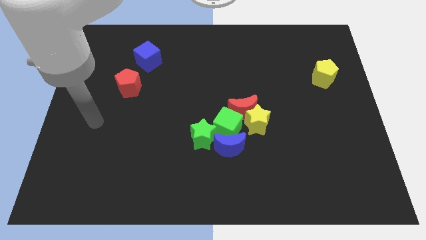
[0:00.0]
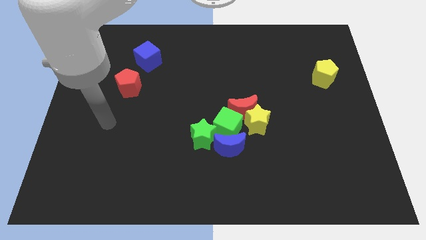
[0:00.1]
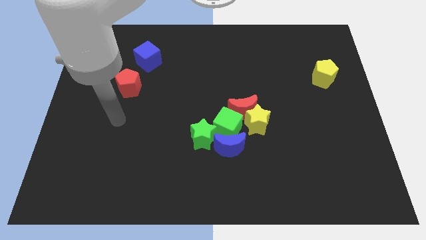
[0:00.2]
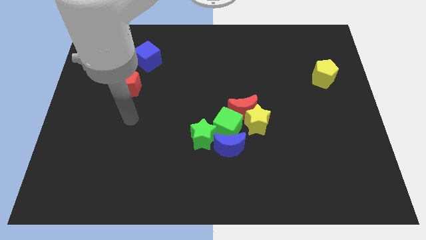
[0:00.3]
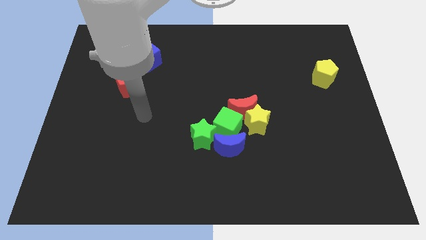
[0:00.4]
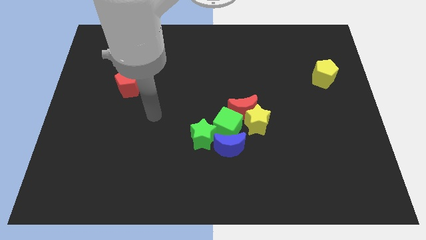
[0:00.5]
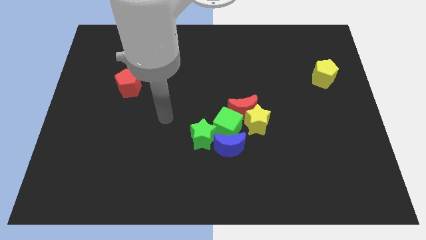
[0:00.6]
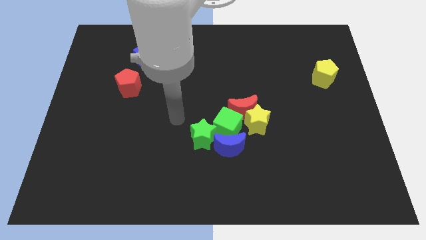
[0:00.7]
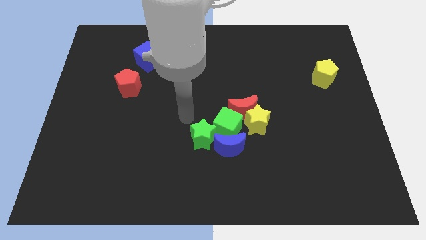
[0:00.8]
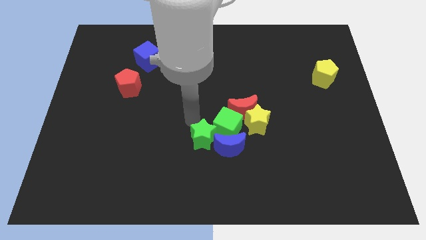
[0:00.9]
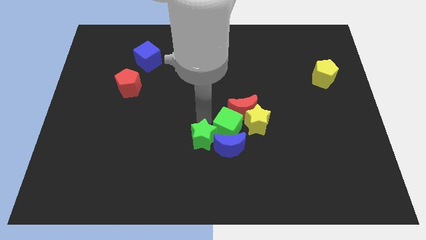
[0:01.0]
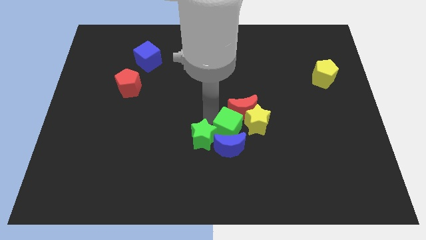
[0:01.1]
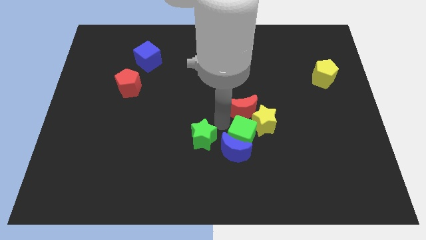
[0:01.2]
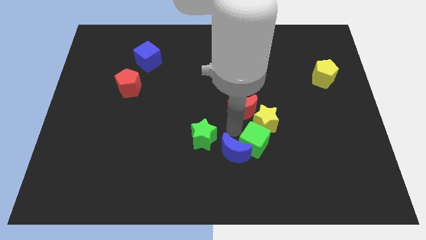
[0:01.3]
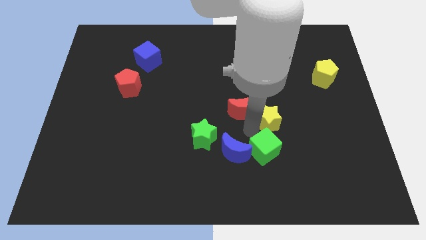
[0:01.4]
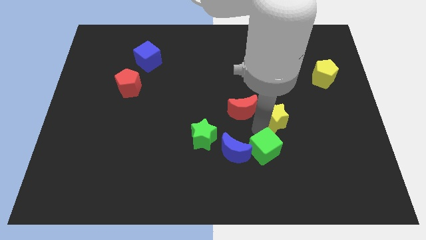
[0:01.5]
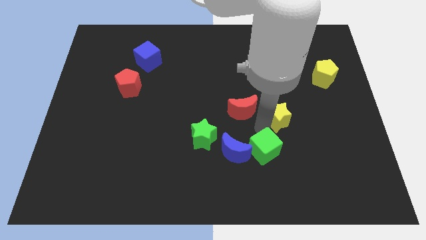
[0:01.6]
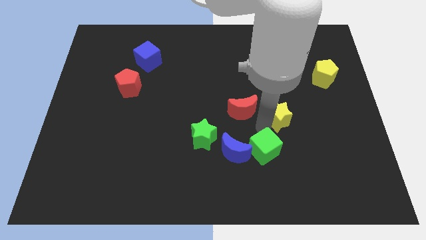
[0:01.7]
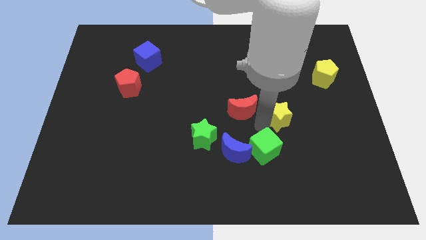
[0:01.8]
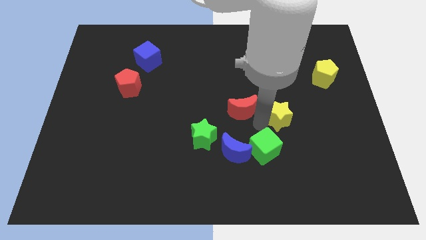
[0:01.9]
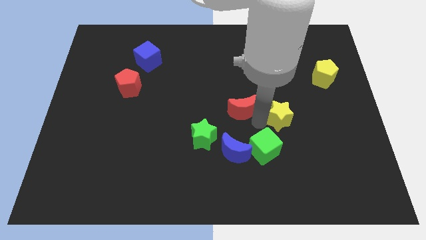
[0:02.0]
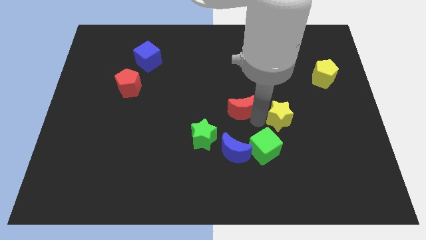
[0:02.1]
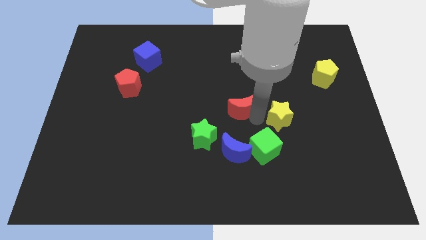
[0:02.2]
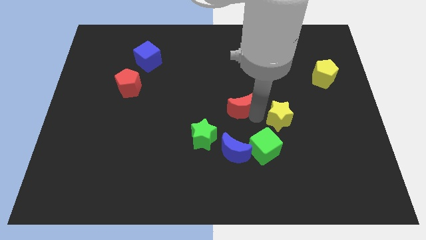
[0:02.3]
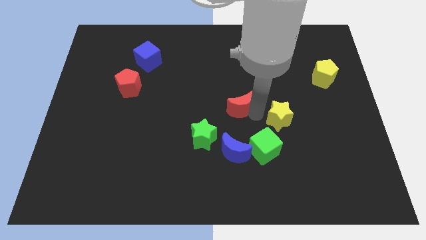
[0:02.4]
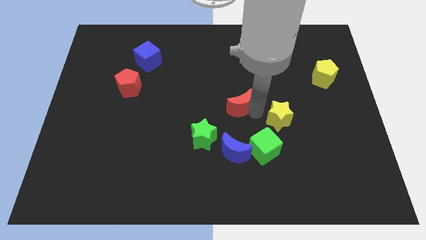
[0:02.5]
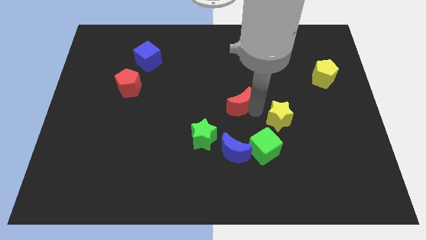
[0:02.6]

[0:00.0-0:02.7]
separate the red moon from the yellow star and green cube

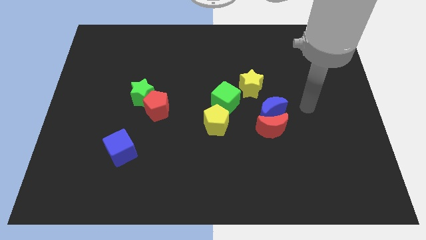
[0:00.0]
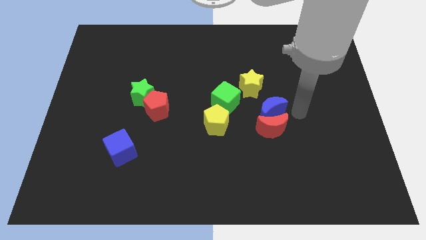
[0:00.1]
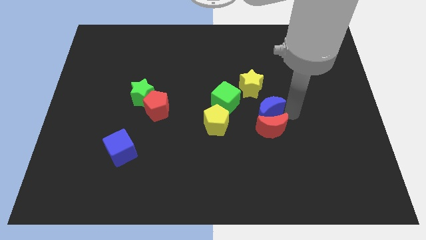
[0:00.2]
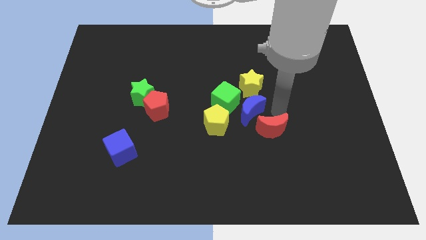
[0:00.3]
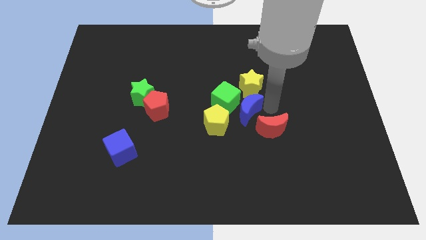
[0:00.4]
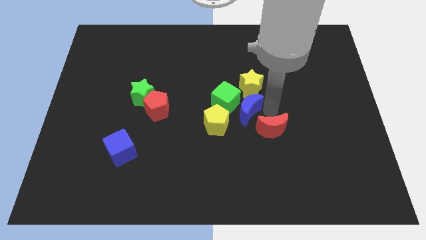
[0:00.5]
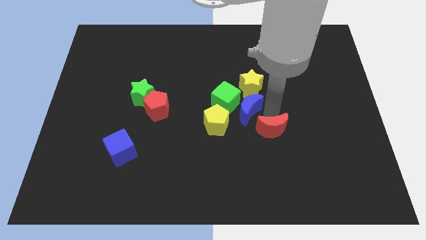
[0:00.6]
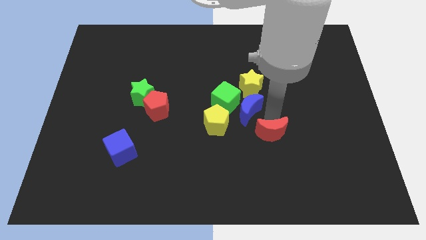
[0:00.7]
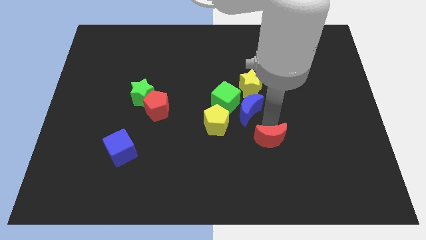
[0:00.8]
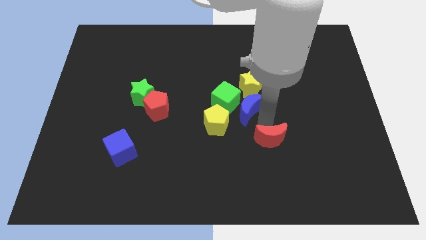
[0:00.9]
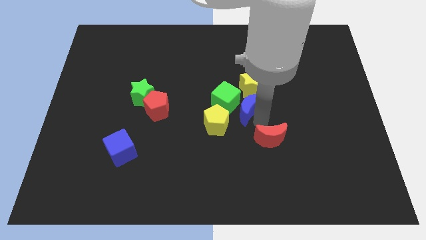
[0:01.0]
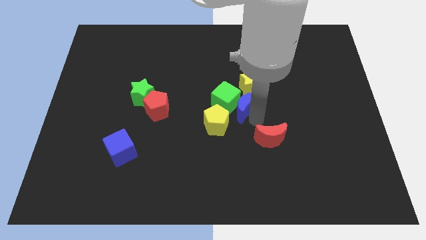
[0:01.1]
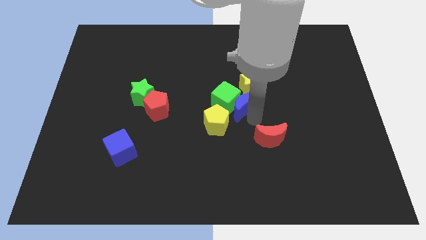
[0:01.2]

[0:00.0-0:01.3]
pull the red moon apart from the blue moon

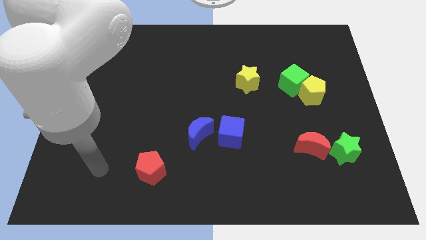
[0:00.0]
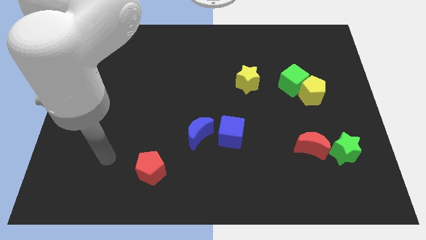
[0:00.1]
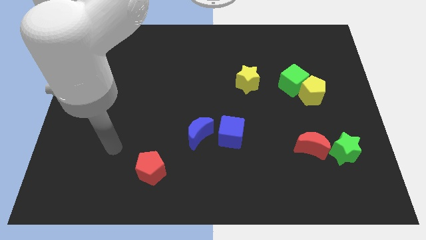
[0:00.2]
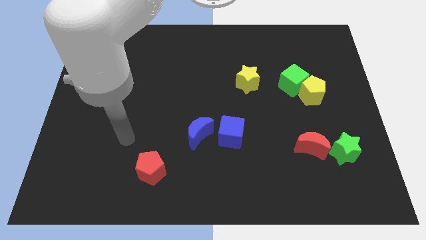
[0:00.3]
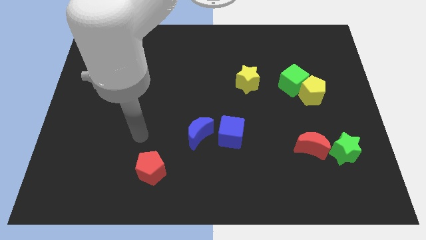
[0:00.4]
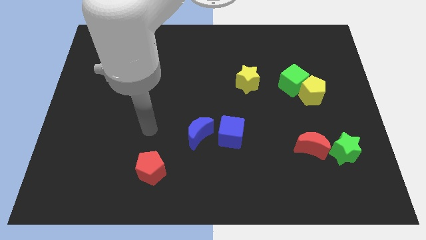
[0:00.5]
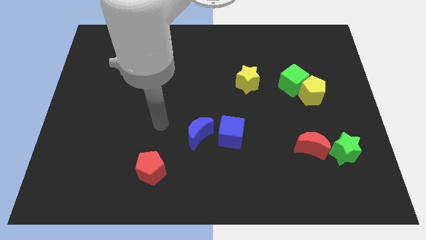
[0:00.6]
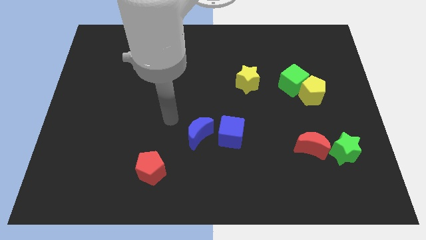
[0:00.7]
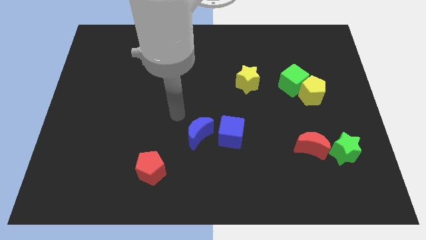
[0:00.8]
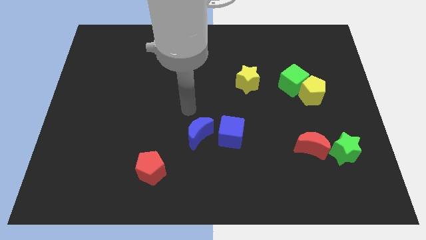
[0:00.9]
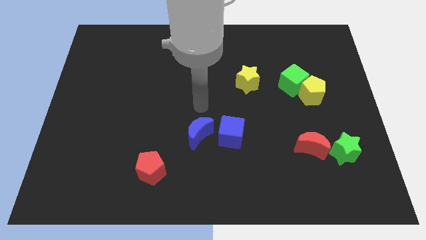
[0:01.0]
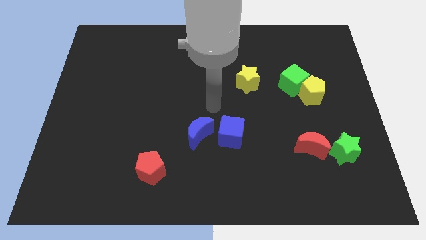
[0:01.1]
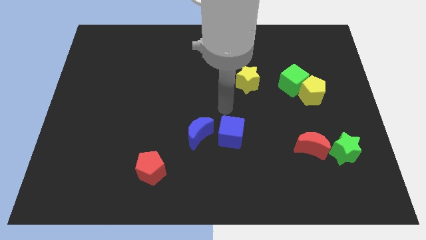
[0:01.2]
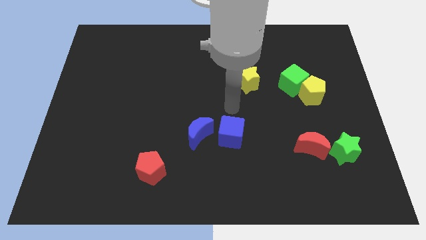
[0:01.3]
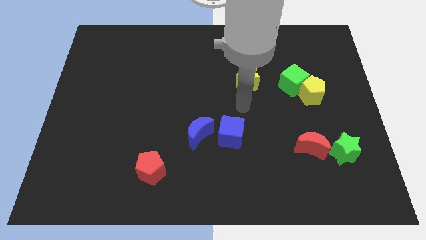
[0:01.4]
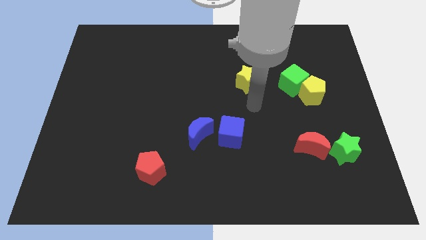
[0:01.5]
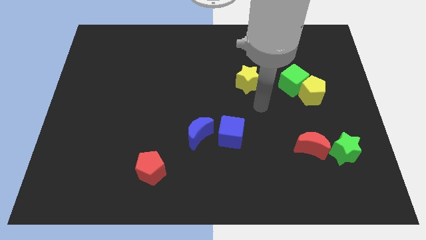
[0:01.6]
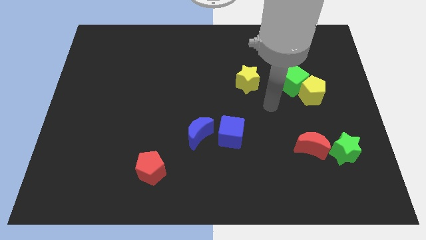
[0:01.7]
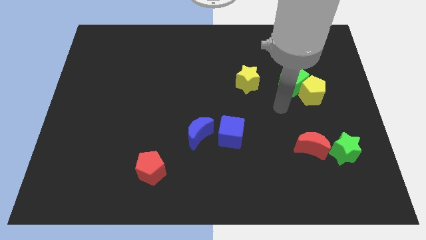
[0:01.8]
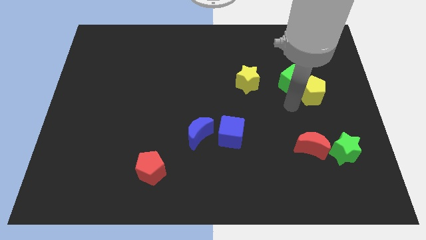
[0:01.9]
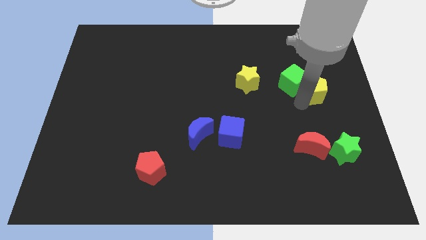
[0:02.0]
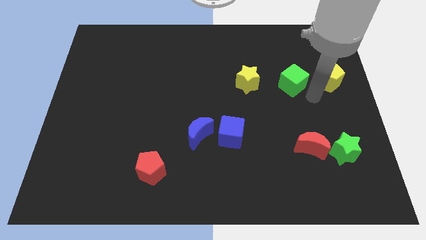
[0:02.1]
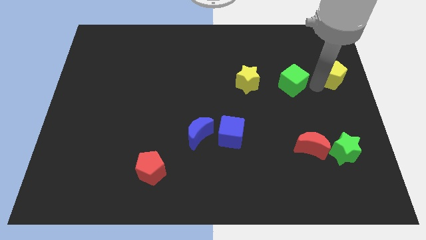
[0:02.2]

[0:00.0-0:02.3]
separate the green cube from the yellow pentagon

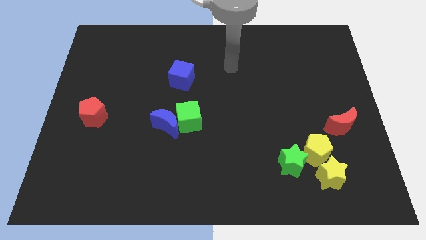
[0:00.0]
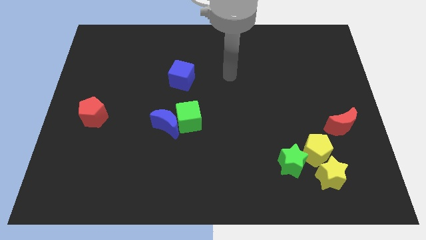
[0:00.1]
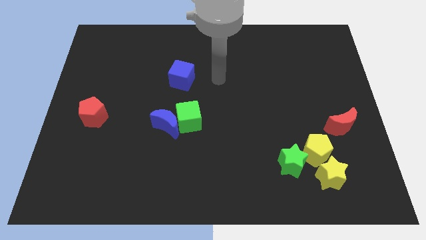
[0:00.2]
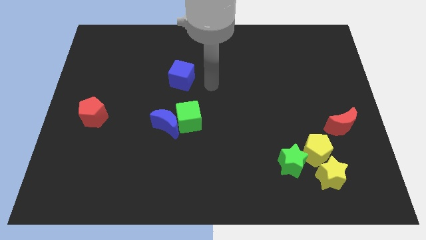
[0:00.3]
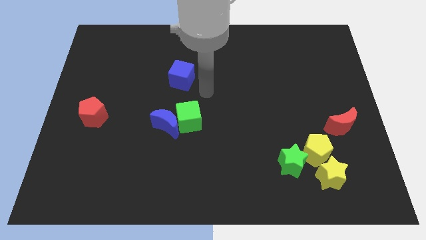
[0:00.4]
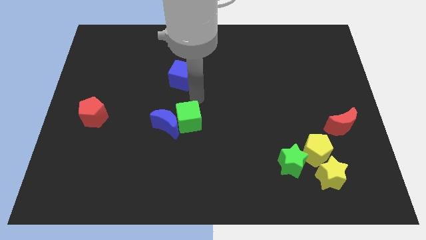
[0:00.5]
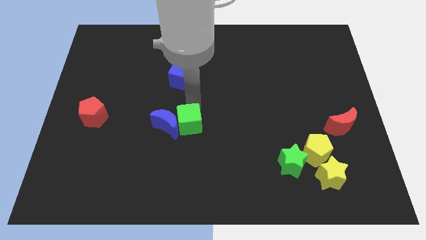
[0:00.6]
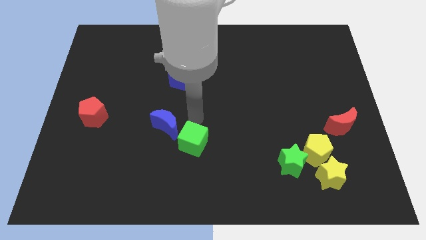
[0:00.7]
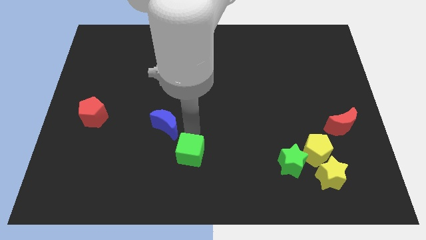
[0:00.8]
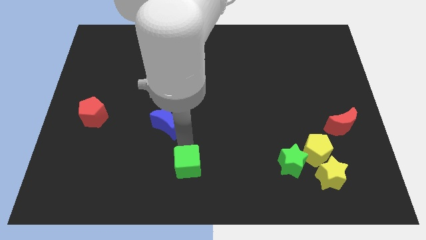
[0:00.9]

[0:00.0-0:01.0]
move the blue moon away from the green cube

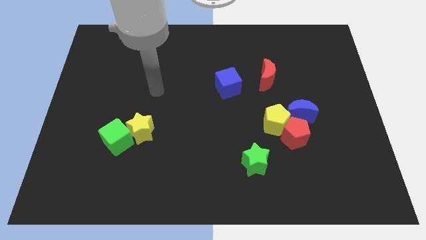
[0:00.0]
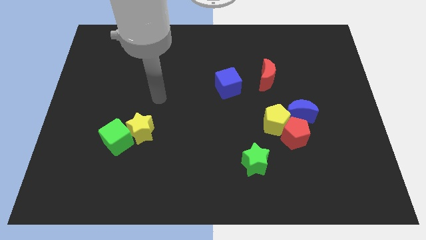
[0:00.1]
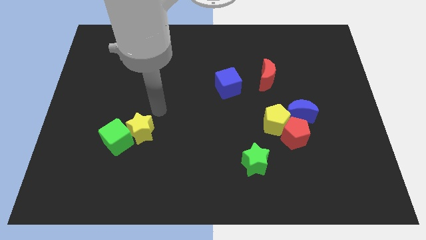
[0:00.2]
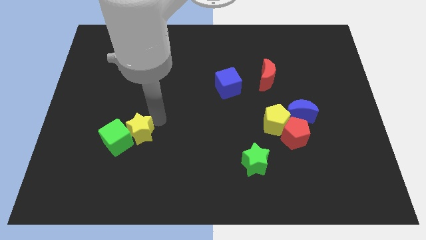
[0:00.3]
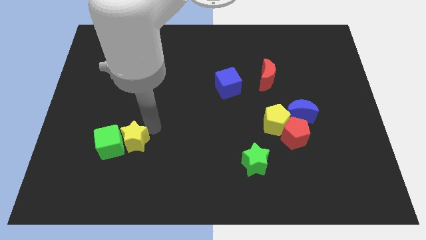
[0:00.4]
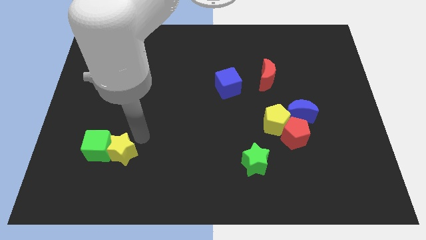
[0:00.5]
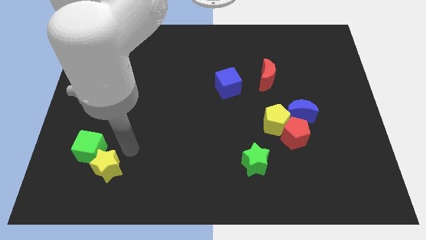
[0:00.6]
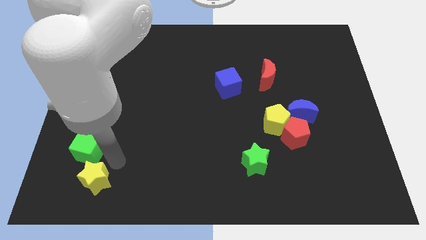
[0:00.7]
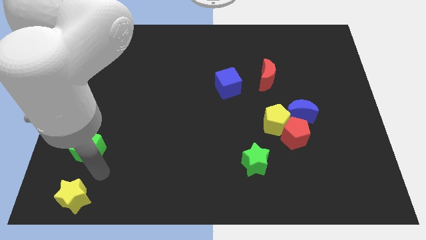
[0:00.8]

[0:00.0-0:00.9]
pull the green cube apart from the yellow star

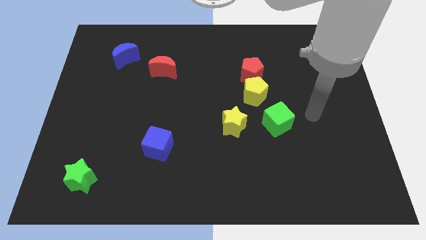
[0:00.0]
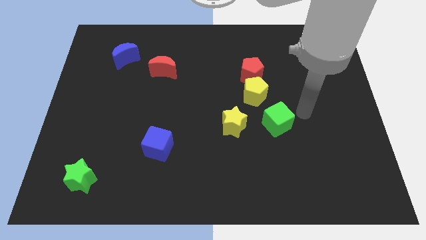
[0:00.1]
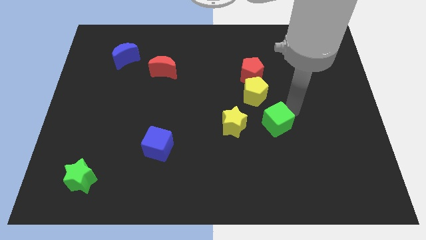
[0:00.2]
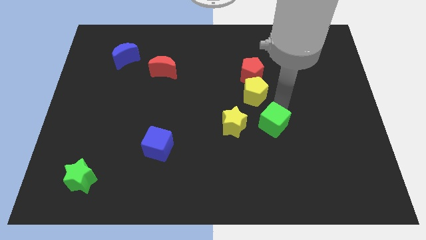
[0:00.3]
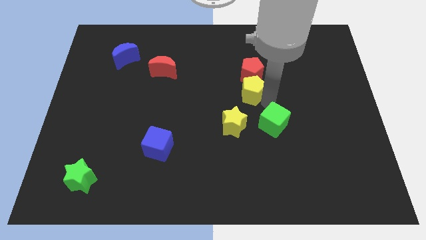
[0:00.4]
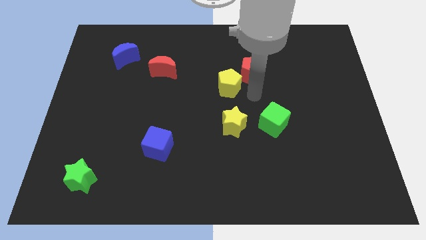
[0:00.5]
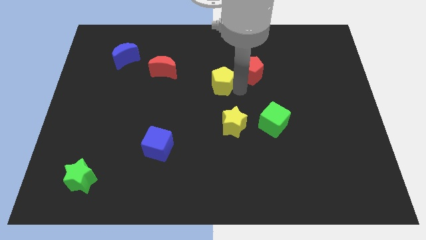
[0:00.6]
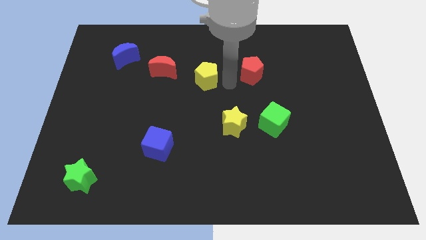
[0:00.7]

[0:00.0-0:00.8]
move the red pentagon away from the yellow pentagon

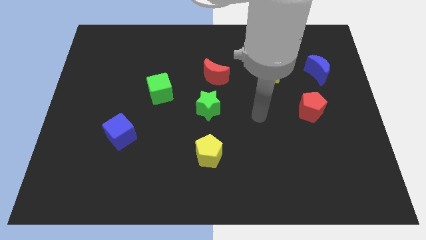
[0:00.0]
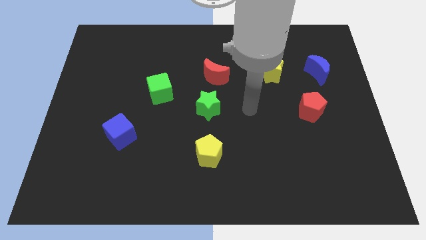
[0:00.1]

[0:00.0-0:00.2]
pull the red moon apart from the green star

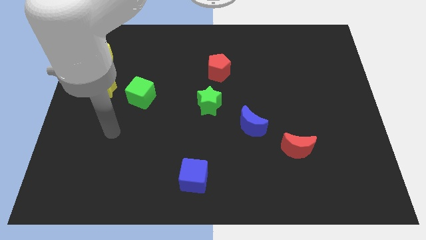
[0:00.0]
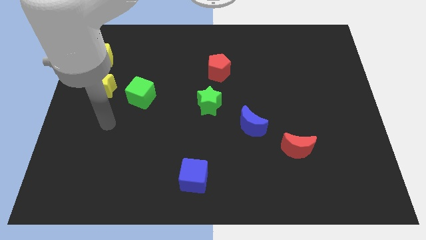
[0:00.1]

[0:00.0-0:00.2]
move the green cube away from the yellow star
